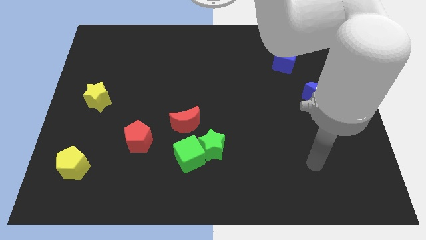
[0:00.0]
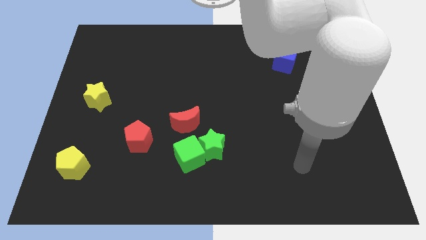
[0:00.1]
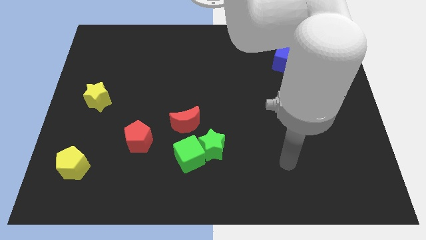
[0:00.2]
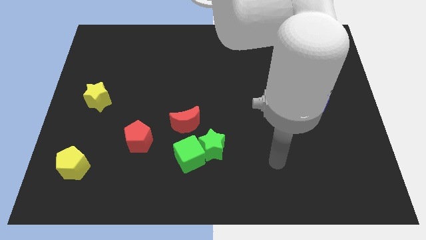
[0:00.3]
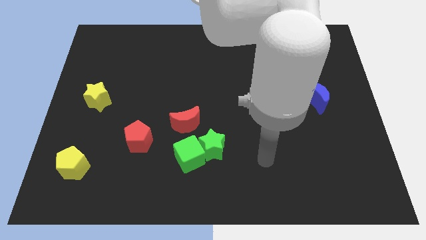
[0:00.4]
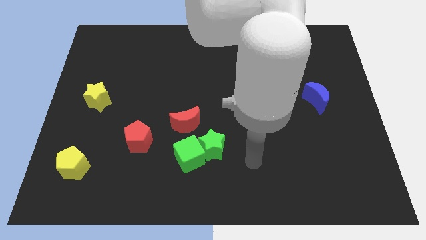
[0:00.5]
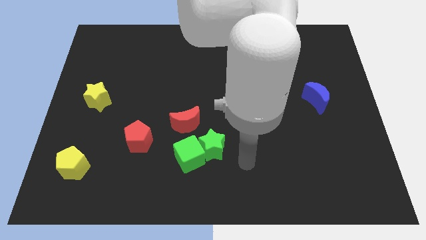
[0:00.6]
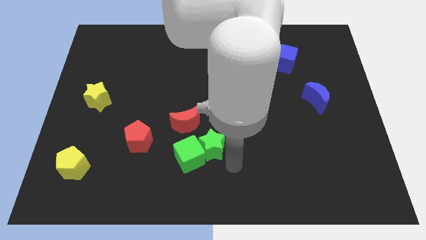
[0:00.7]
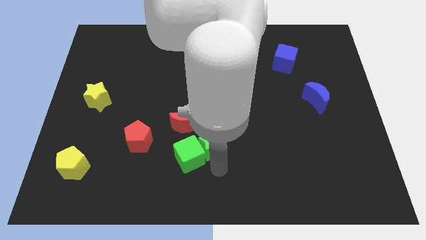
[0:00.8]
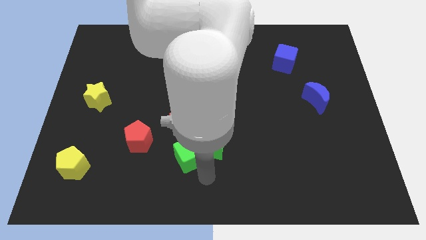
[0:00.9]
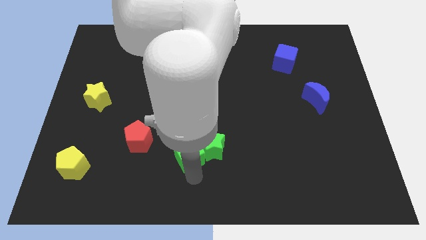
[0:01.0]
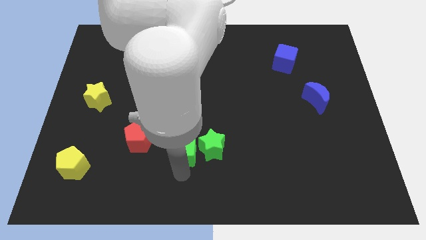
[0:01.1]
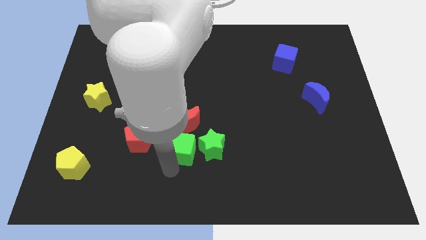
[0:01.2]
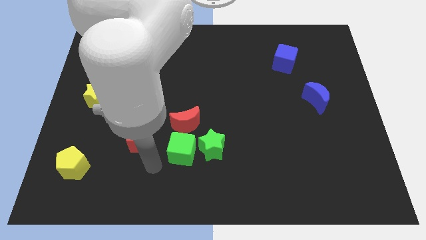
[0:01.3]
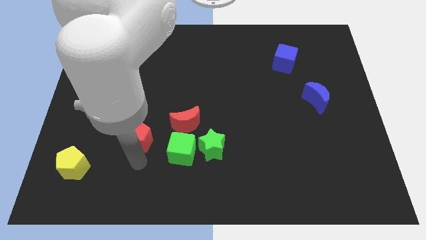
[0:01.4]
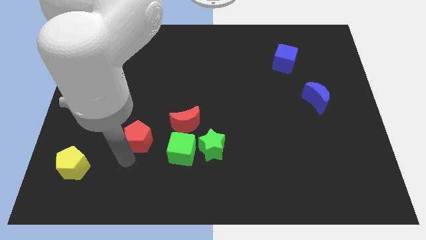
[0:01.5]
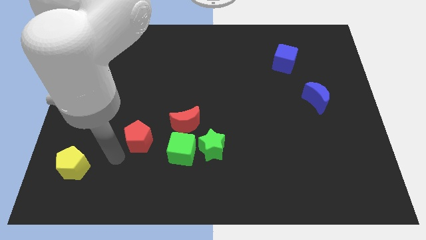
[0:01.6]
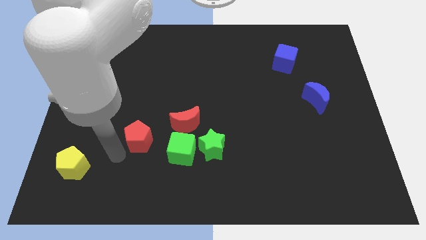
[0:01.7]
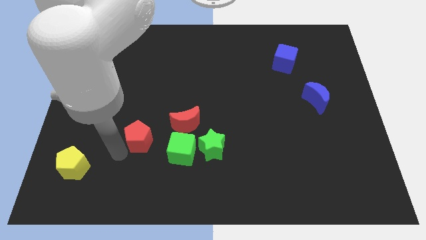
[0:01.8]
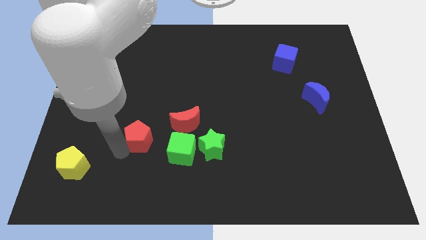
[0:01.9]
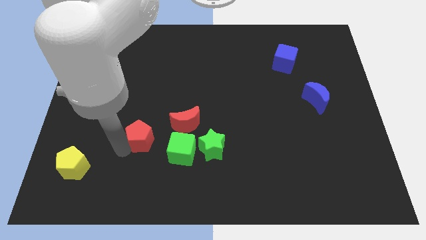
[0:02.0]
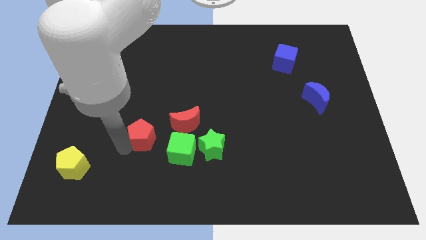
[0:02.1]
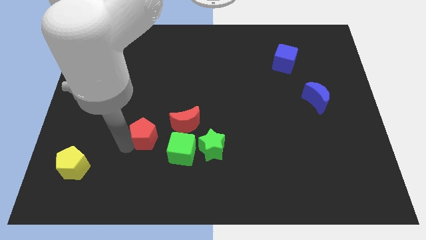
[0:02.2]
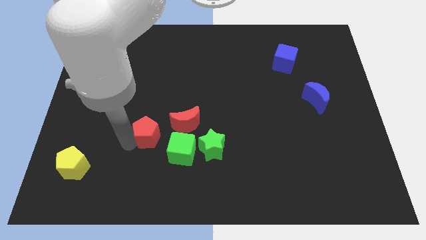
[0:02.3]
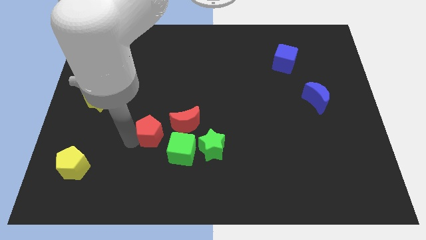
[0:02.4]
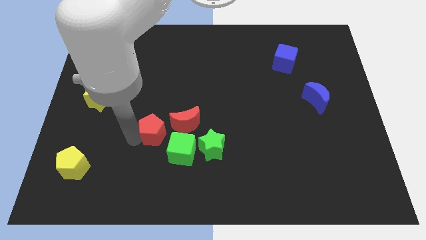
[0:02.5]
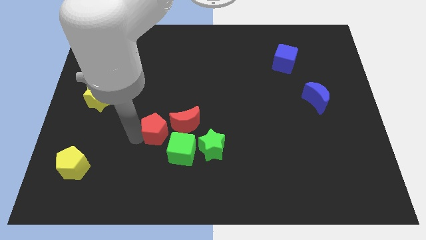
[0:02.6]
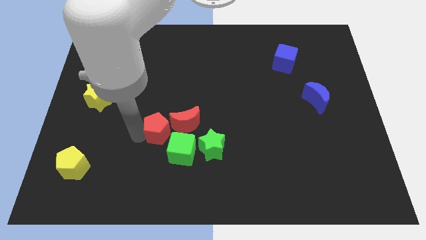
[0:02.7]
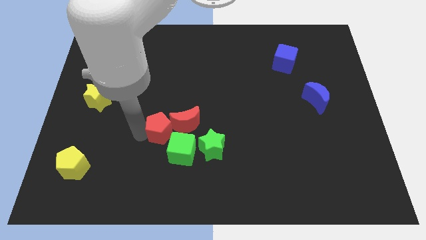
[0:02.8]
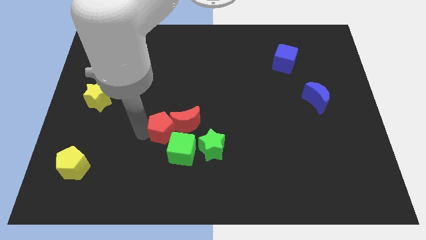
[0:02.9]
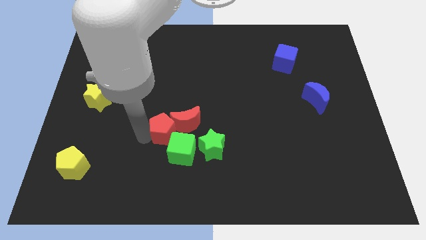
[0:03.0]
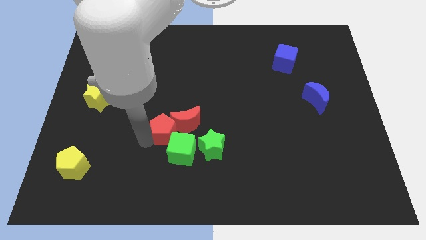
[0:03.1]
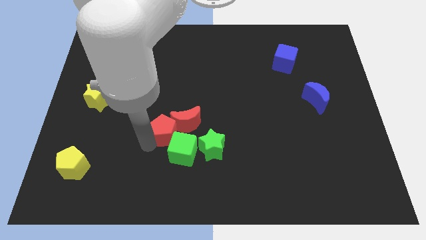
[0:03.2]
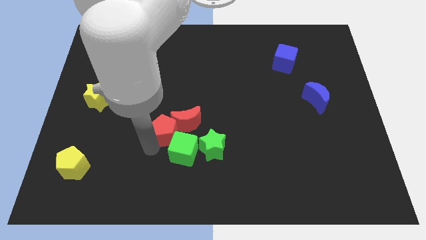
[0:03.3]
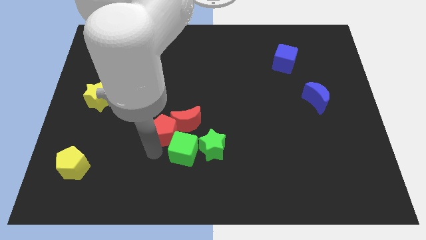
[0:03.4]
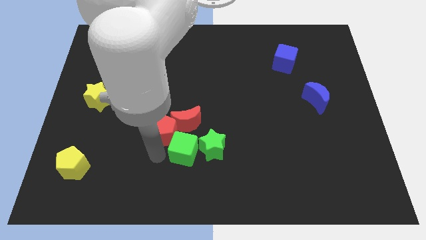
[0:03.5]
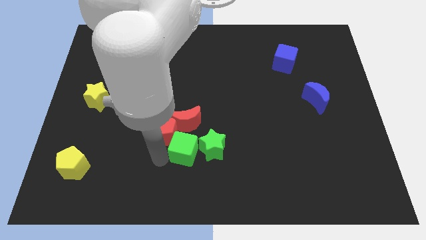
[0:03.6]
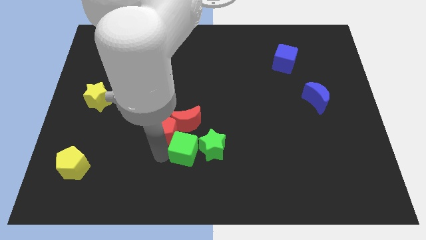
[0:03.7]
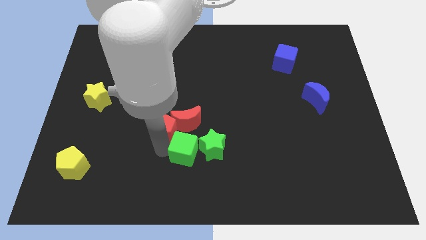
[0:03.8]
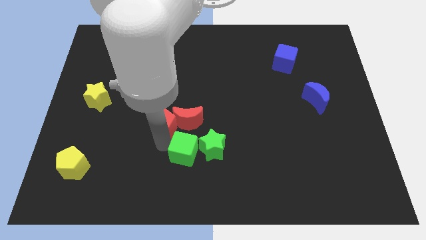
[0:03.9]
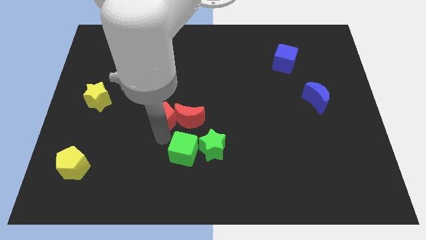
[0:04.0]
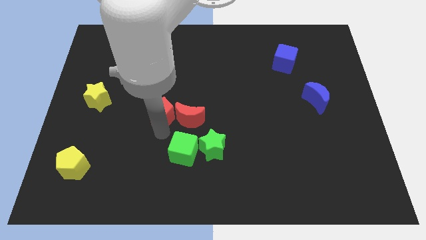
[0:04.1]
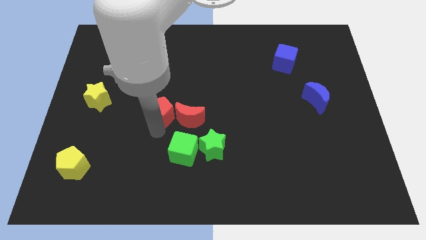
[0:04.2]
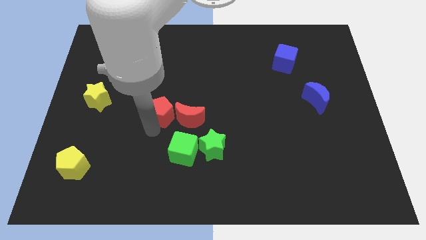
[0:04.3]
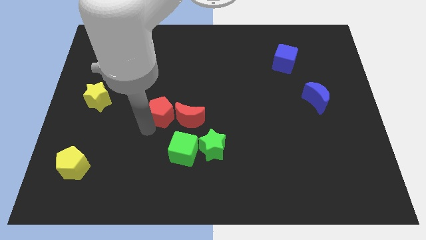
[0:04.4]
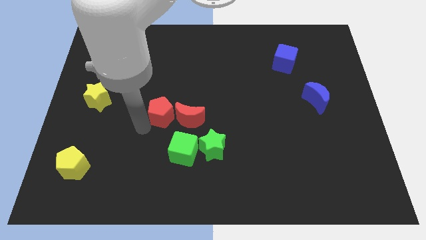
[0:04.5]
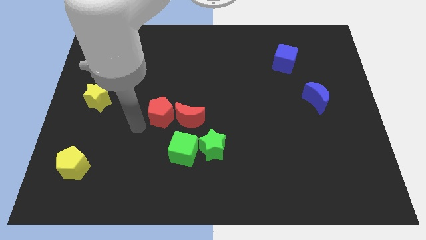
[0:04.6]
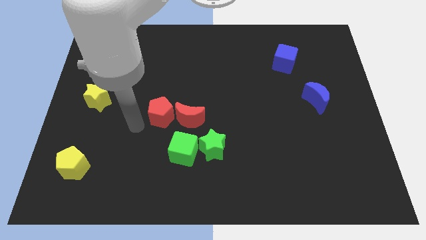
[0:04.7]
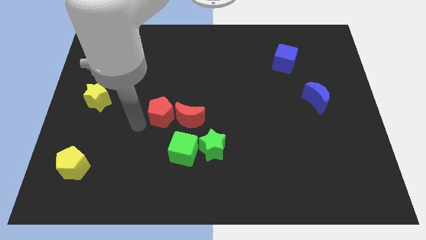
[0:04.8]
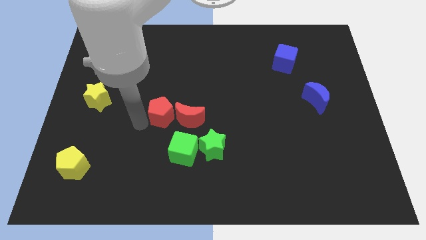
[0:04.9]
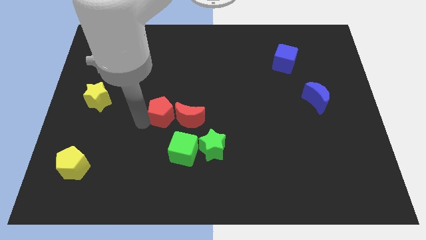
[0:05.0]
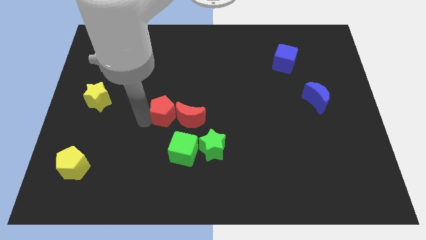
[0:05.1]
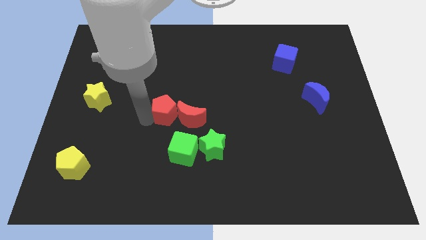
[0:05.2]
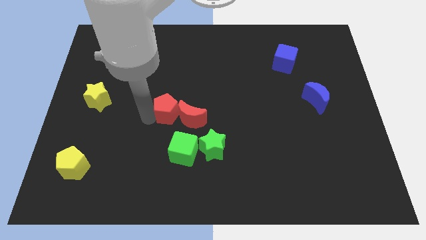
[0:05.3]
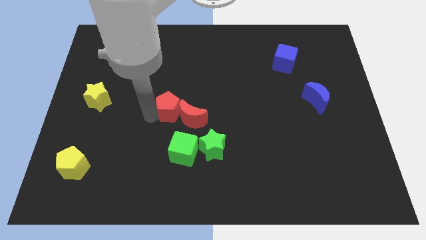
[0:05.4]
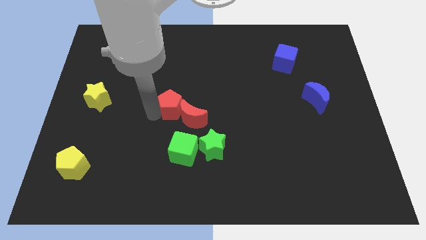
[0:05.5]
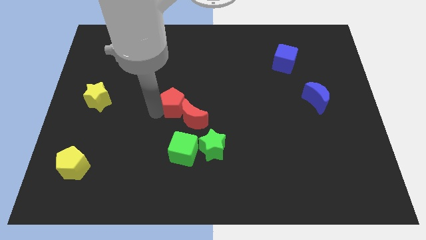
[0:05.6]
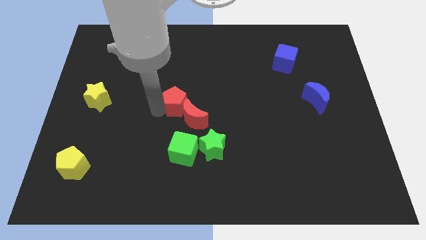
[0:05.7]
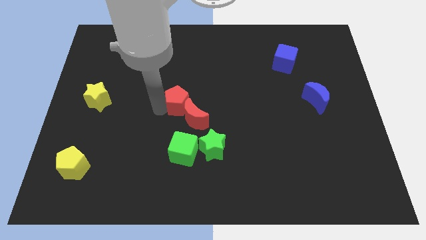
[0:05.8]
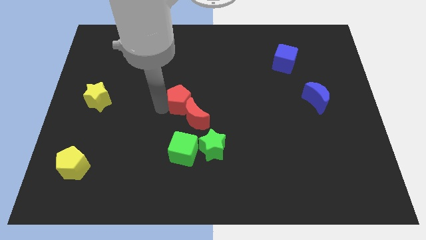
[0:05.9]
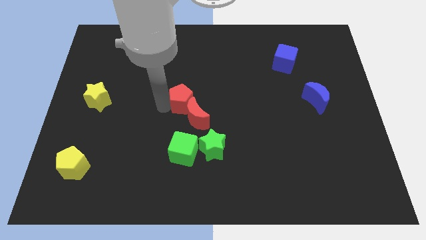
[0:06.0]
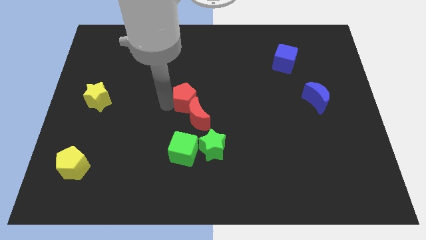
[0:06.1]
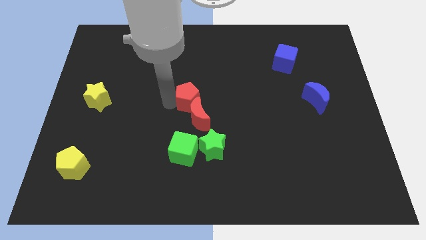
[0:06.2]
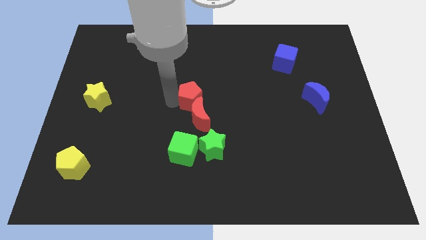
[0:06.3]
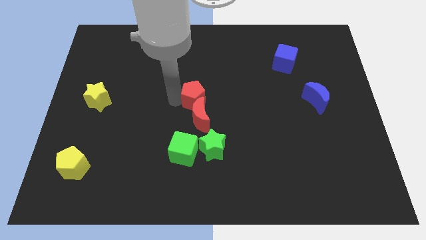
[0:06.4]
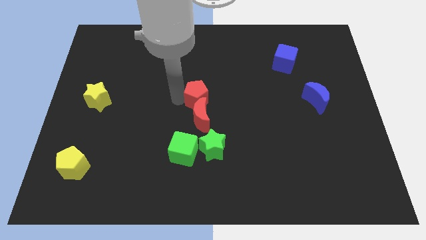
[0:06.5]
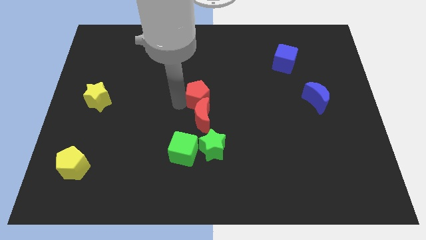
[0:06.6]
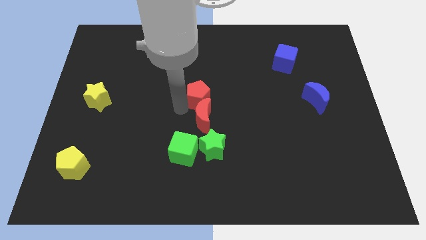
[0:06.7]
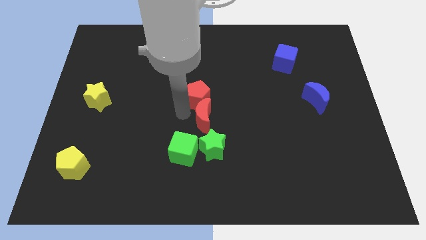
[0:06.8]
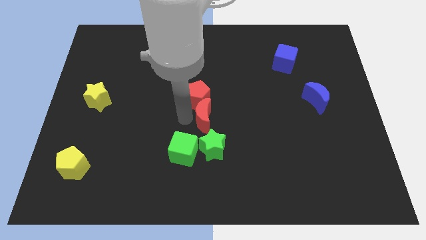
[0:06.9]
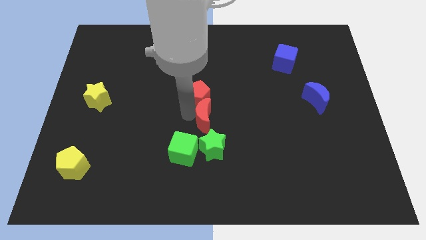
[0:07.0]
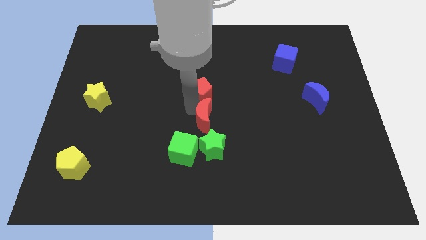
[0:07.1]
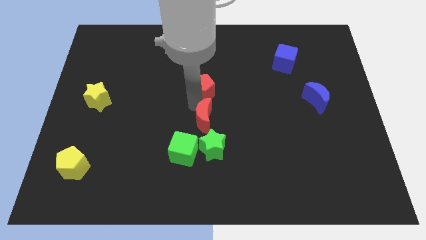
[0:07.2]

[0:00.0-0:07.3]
slide the red pentagon diagonally upwards and to the right
